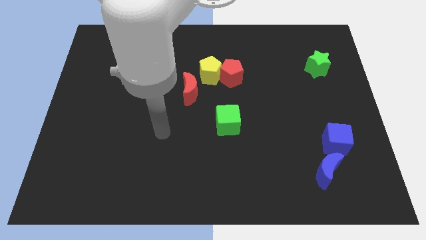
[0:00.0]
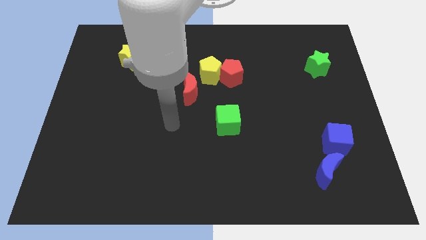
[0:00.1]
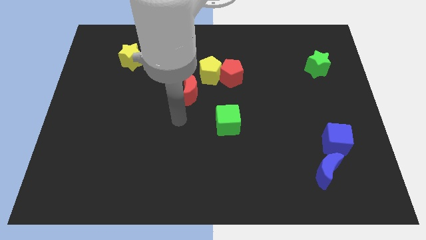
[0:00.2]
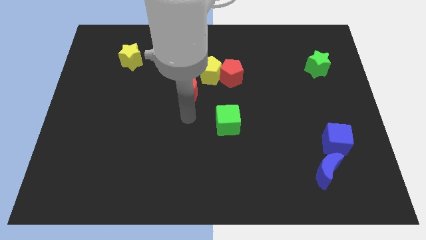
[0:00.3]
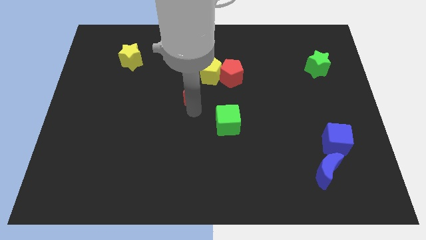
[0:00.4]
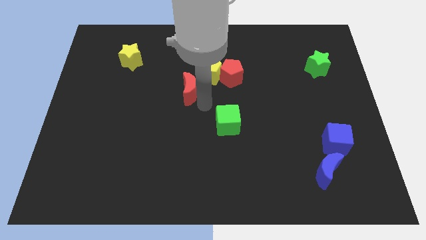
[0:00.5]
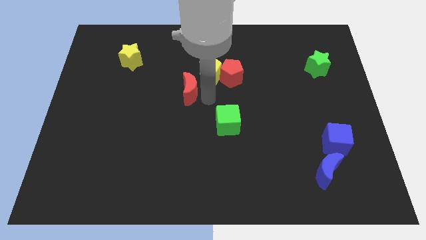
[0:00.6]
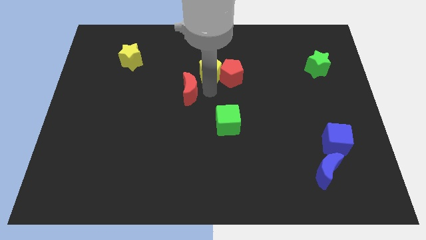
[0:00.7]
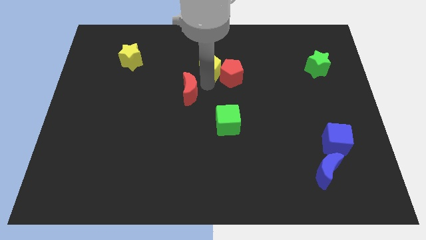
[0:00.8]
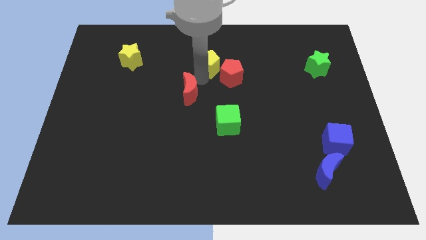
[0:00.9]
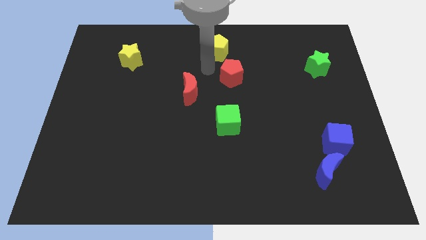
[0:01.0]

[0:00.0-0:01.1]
separate the red pentagon from the yellow pentagon

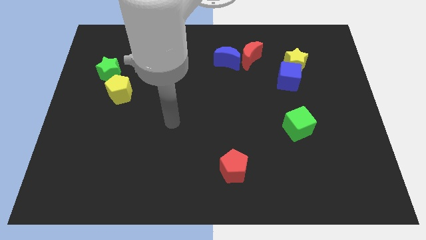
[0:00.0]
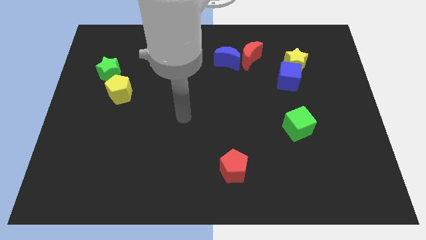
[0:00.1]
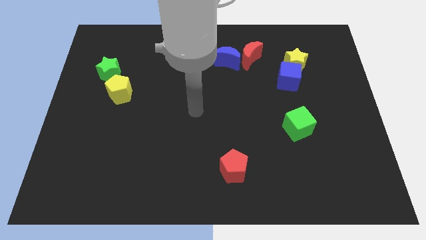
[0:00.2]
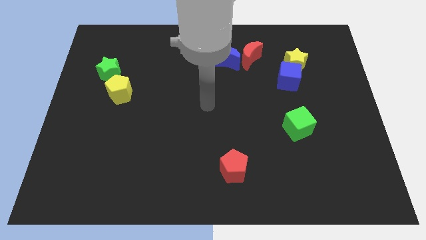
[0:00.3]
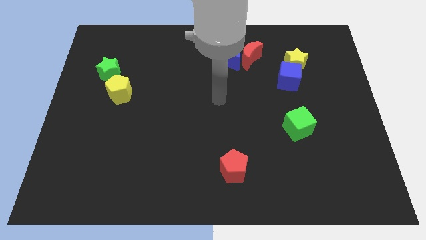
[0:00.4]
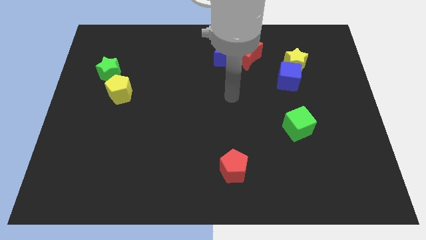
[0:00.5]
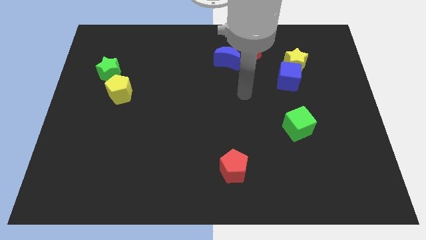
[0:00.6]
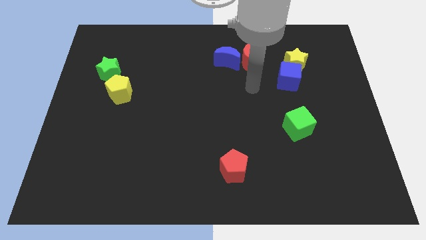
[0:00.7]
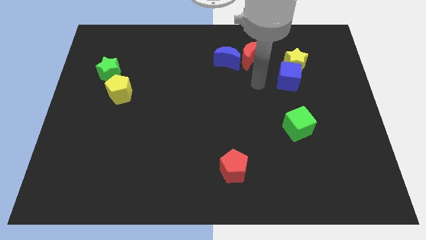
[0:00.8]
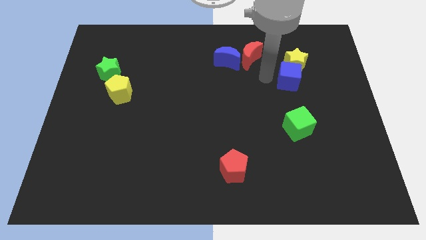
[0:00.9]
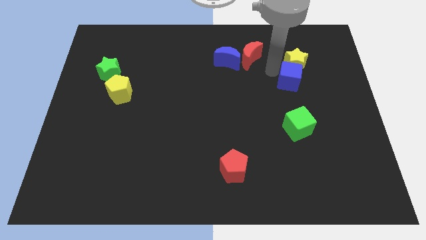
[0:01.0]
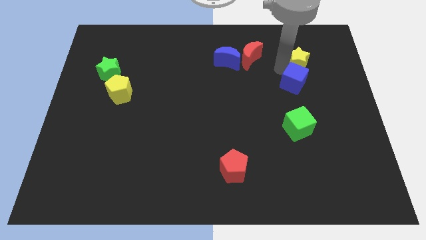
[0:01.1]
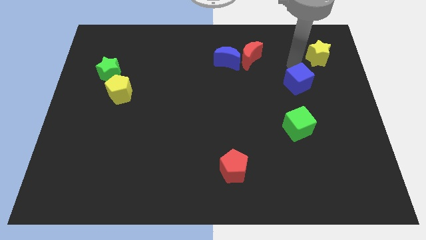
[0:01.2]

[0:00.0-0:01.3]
move the blue cube away from the yellow star

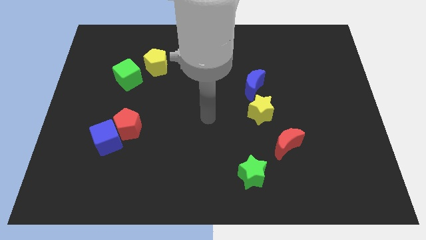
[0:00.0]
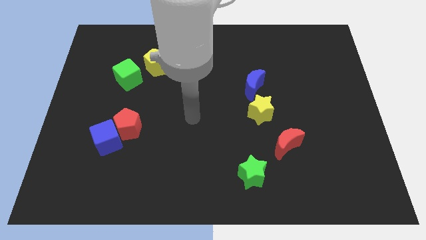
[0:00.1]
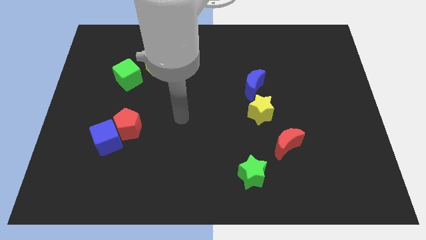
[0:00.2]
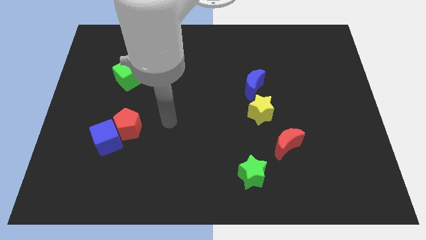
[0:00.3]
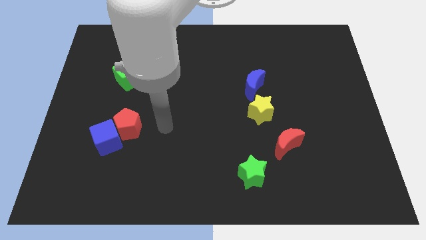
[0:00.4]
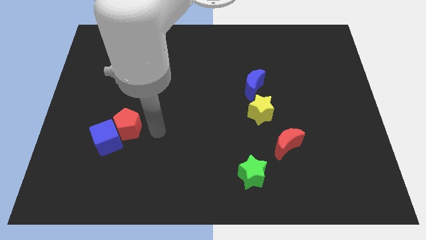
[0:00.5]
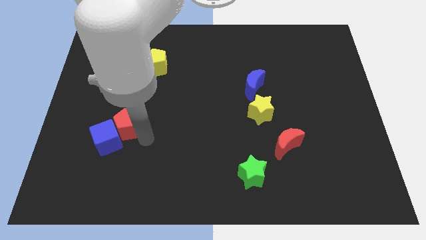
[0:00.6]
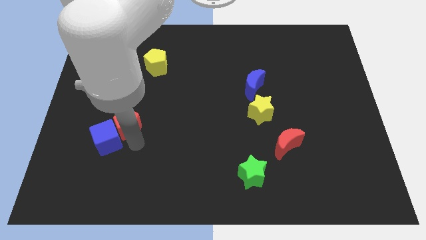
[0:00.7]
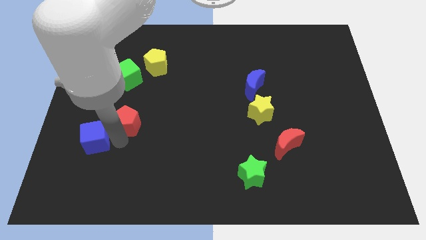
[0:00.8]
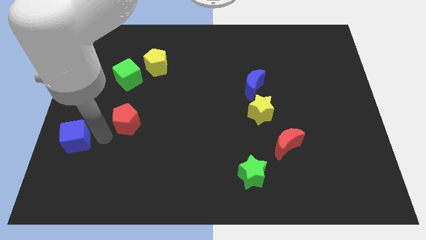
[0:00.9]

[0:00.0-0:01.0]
separate the red pentagon from the blue cube

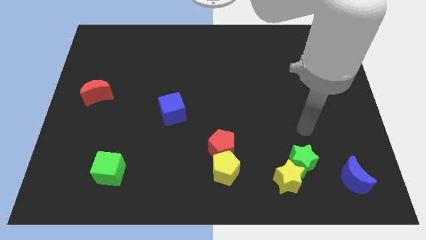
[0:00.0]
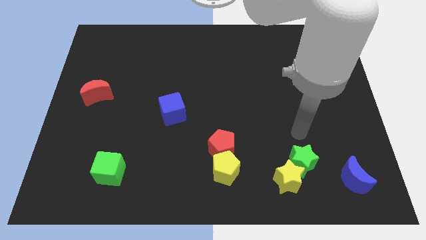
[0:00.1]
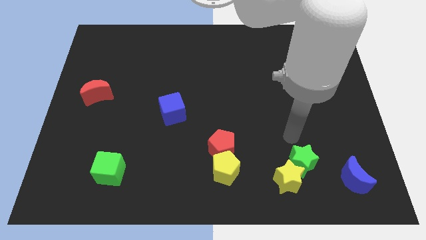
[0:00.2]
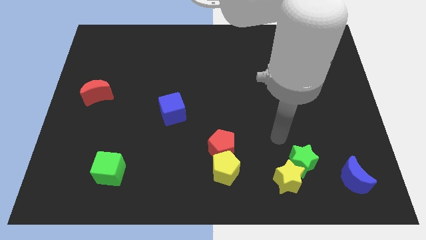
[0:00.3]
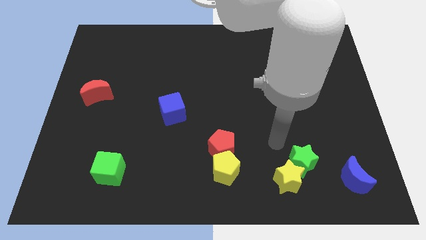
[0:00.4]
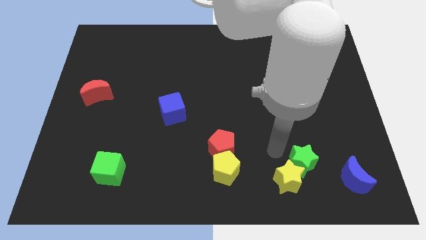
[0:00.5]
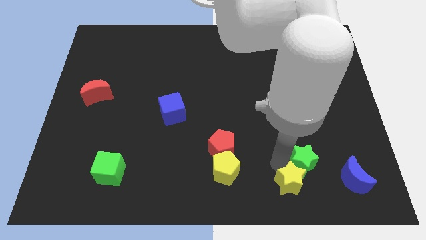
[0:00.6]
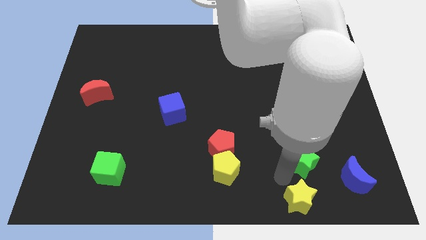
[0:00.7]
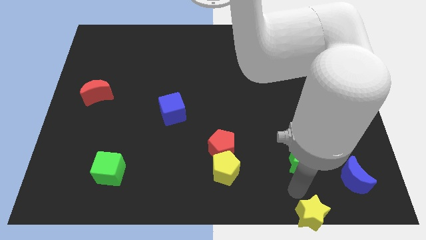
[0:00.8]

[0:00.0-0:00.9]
pull the green star apart from the yellow star

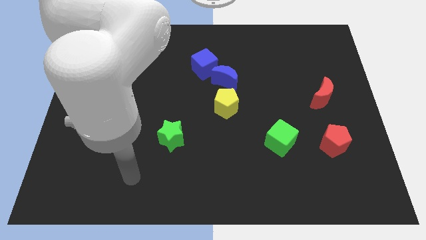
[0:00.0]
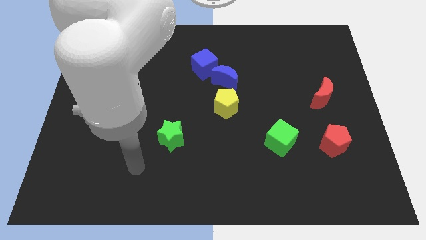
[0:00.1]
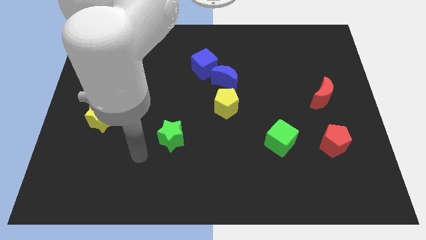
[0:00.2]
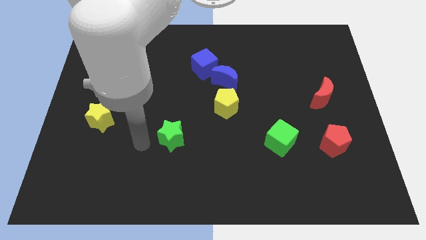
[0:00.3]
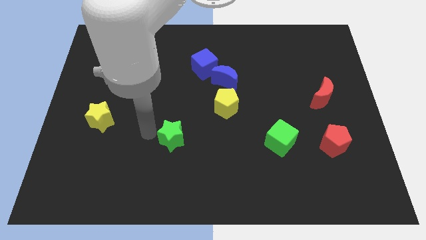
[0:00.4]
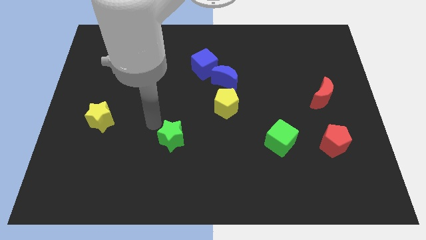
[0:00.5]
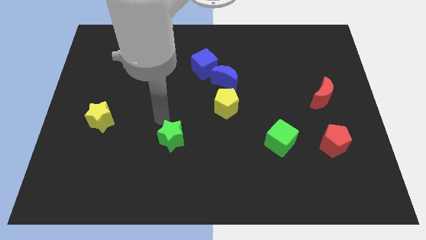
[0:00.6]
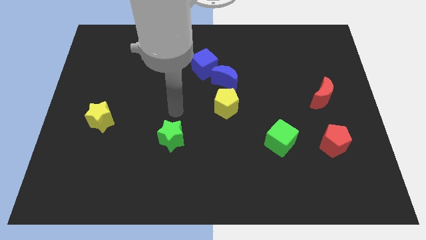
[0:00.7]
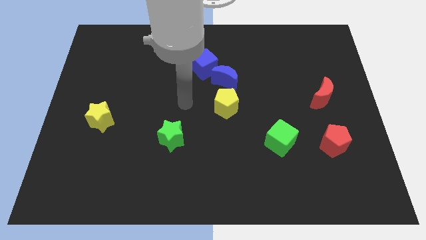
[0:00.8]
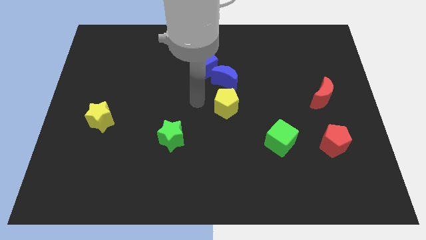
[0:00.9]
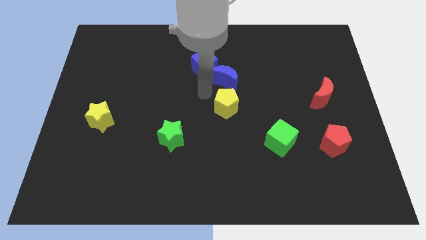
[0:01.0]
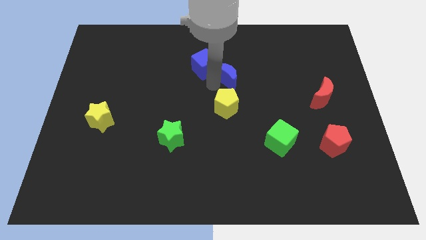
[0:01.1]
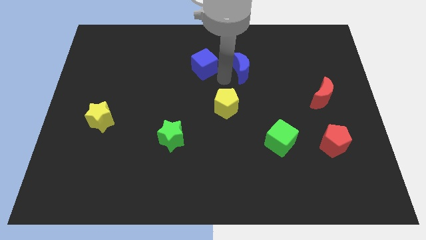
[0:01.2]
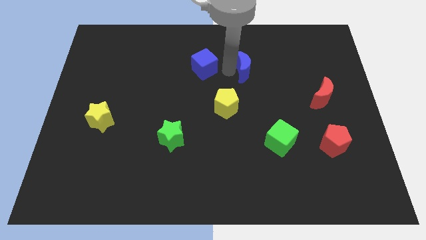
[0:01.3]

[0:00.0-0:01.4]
pull the blue cube apart from the blue moon

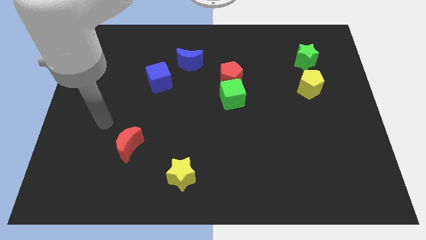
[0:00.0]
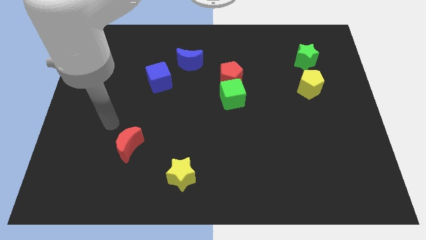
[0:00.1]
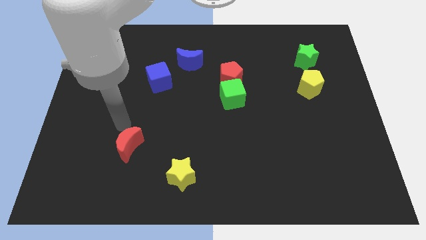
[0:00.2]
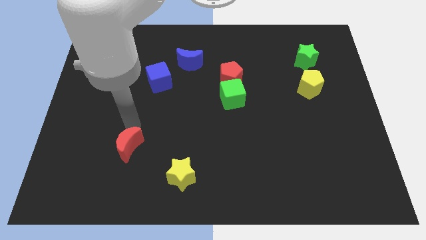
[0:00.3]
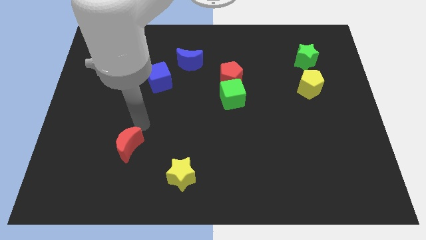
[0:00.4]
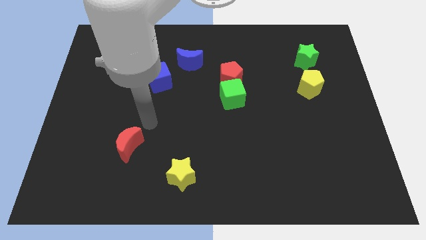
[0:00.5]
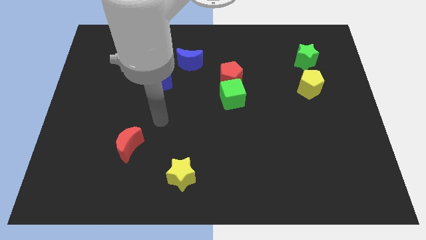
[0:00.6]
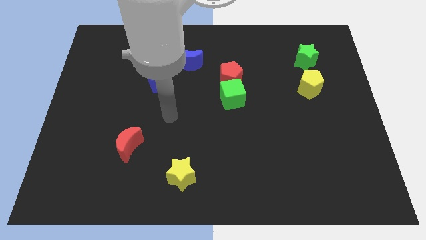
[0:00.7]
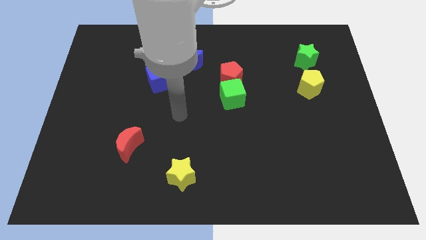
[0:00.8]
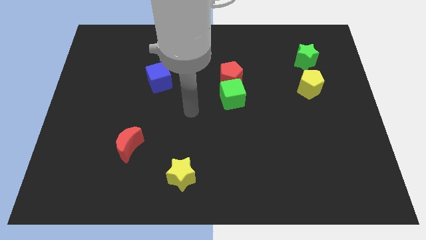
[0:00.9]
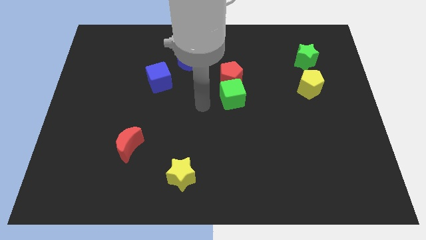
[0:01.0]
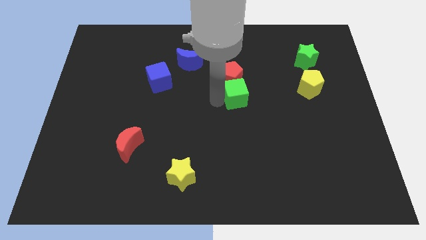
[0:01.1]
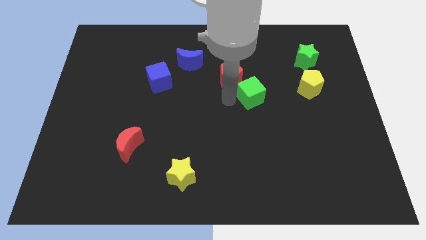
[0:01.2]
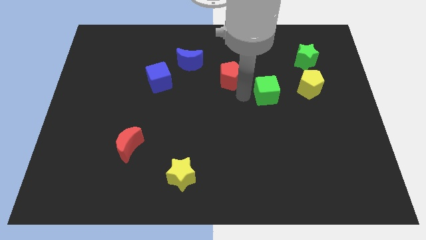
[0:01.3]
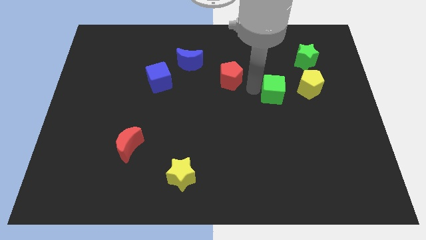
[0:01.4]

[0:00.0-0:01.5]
move the red pentagon away from the green cube

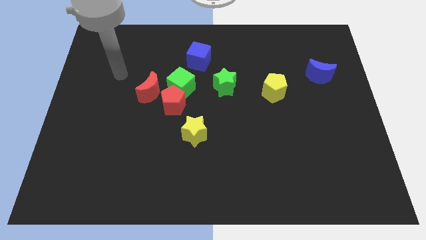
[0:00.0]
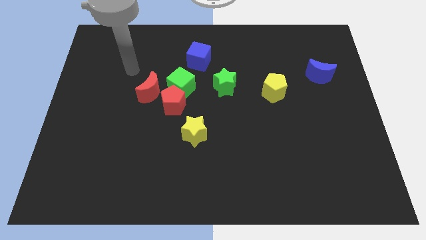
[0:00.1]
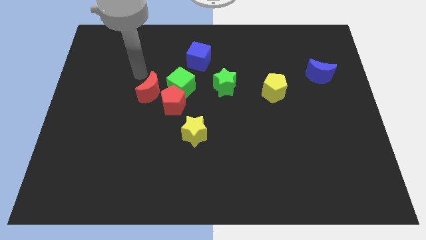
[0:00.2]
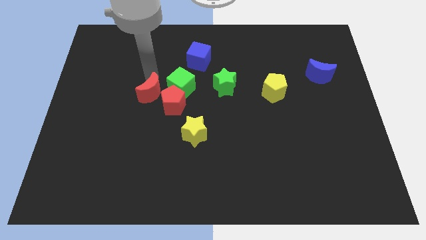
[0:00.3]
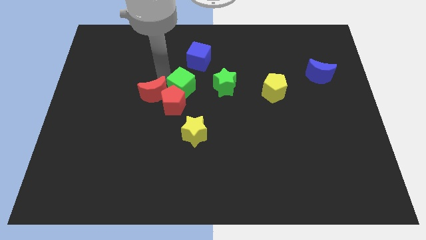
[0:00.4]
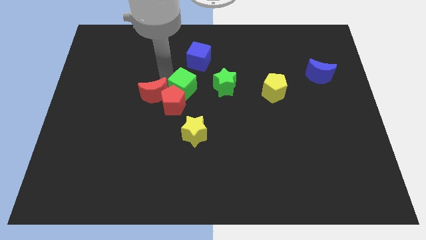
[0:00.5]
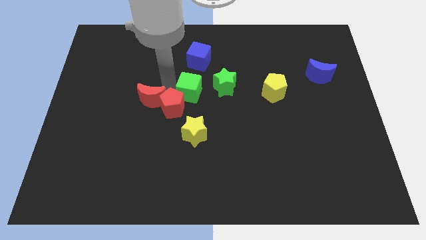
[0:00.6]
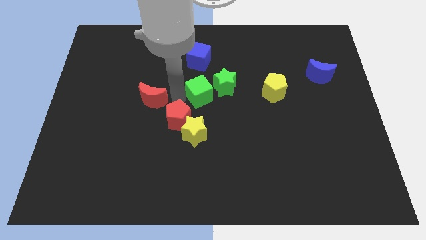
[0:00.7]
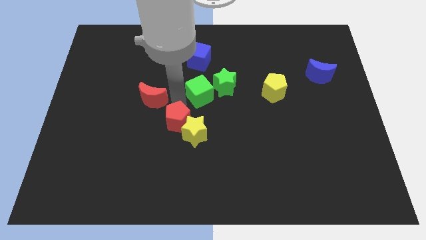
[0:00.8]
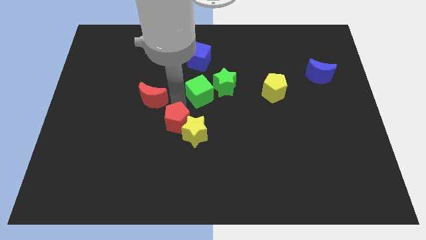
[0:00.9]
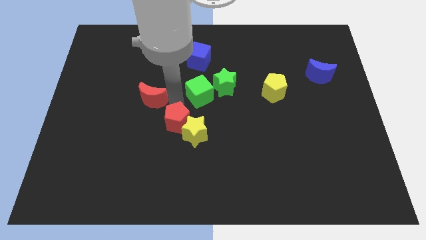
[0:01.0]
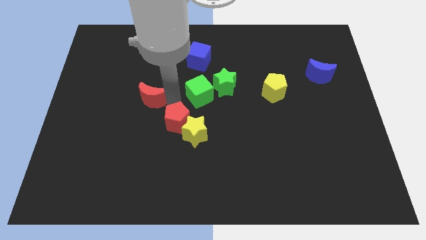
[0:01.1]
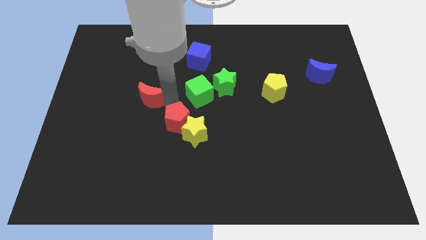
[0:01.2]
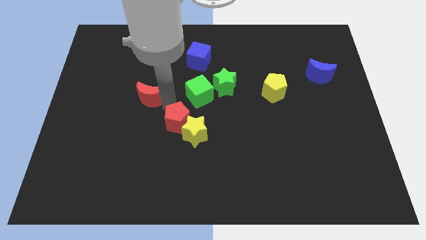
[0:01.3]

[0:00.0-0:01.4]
pull the red moon apart from the red pentagon and green cube

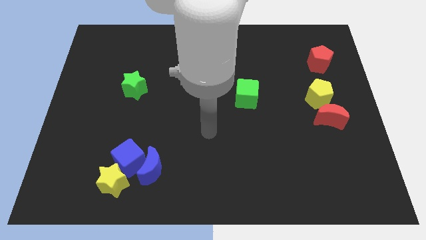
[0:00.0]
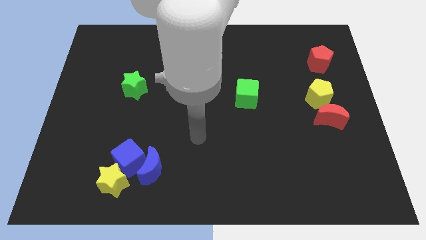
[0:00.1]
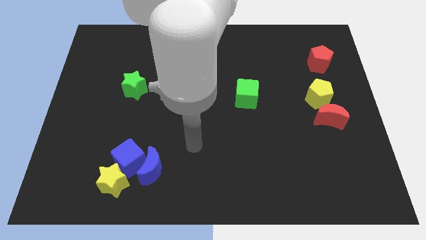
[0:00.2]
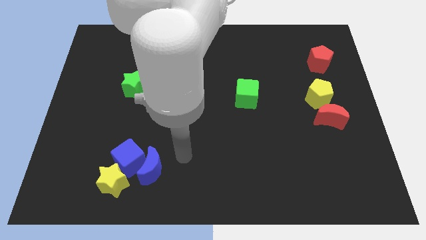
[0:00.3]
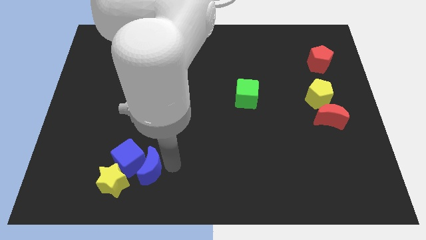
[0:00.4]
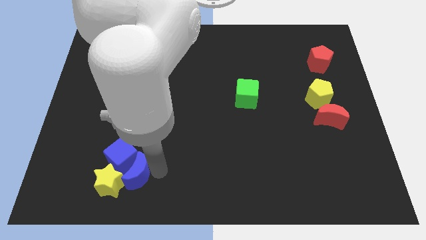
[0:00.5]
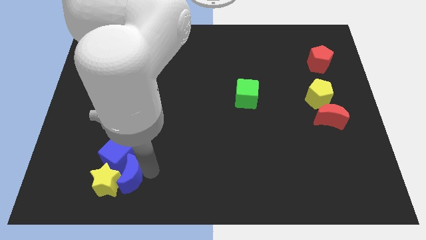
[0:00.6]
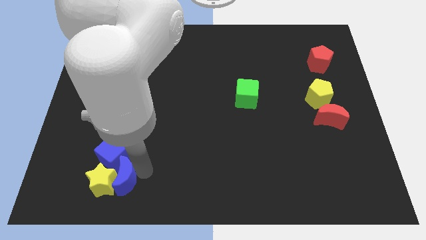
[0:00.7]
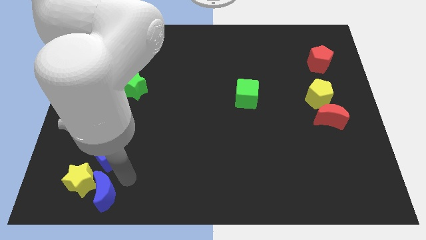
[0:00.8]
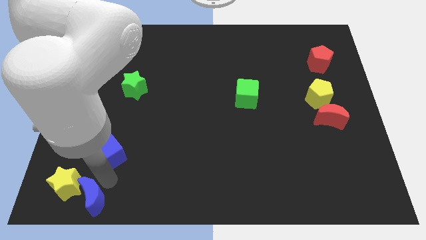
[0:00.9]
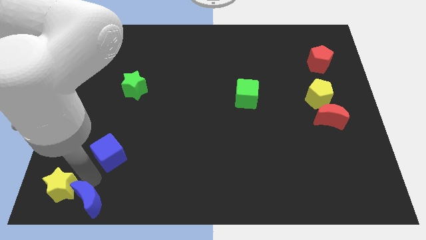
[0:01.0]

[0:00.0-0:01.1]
separate the blue cube from the blue moon and yellow star
